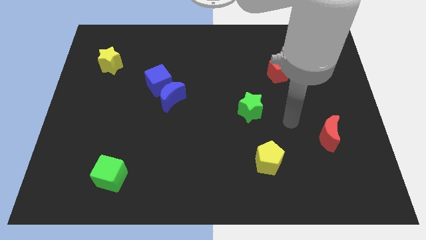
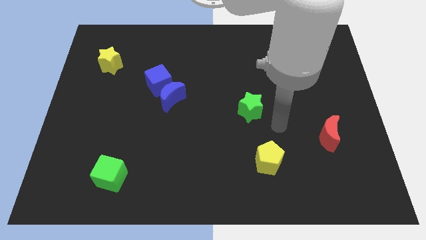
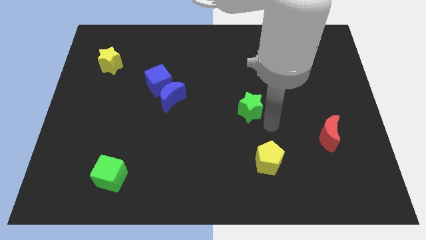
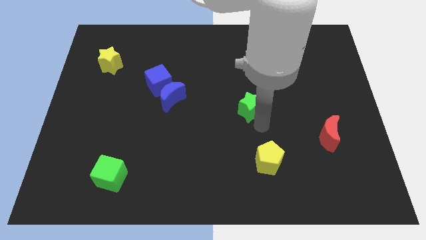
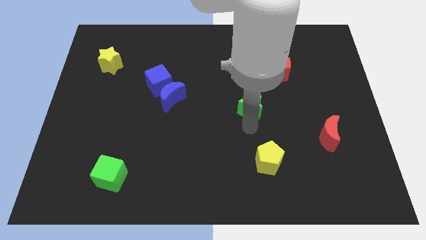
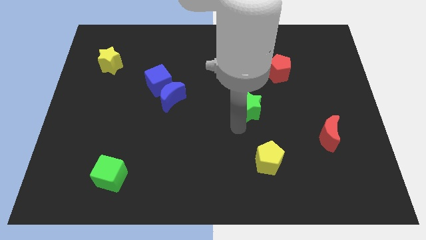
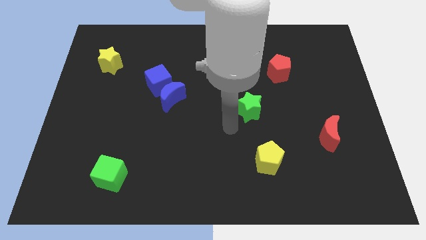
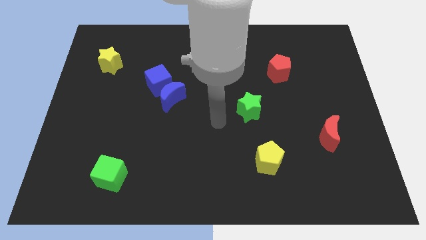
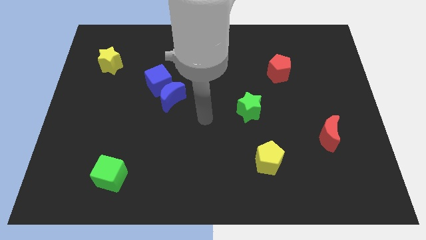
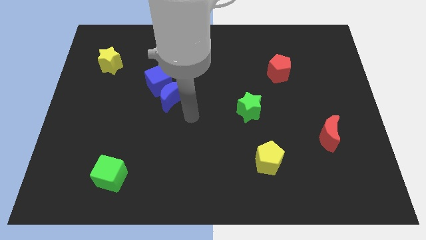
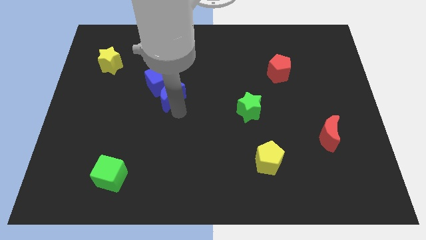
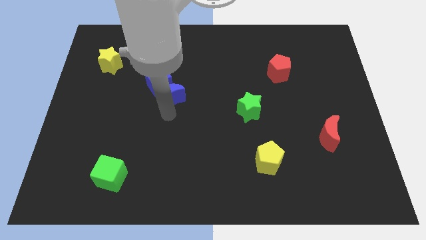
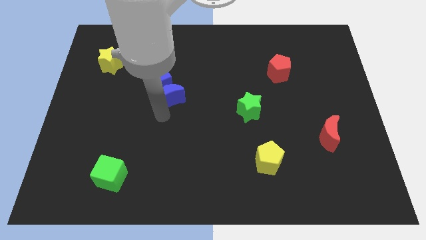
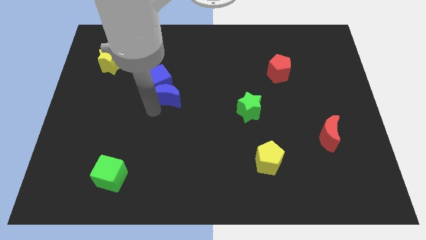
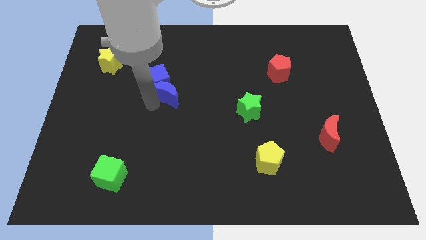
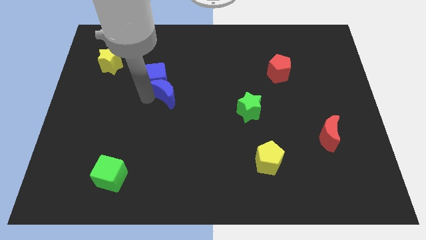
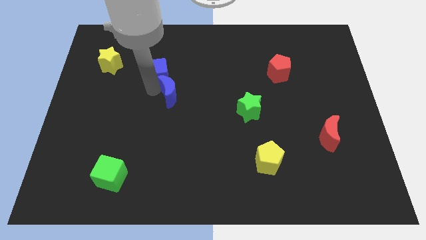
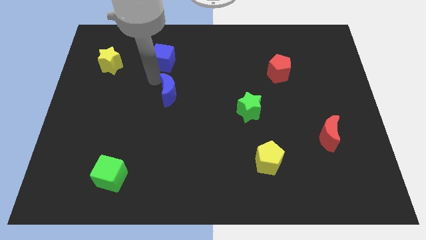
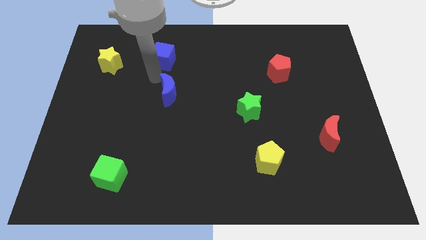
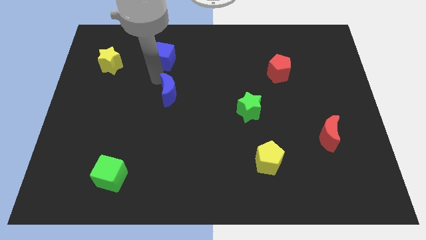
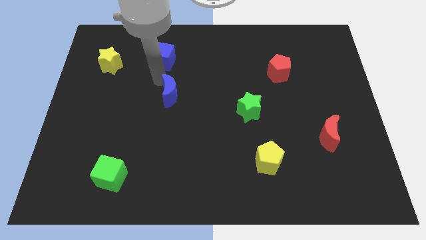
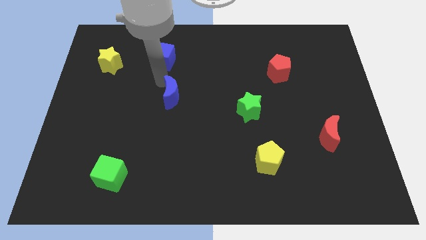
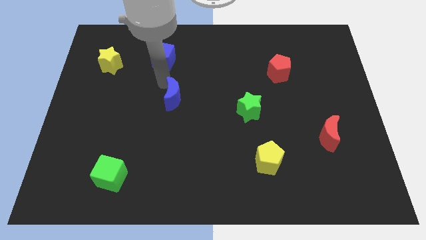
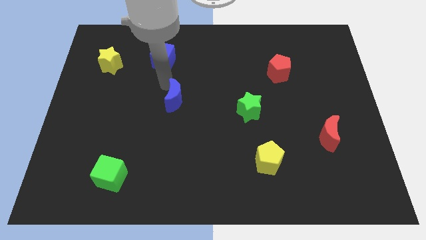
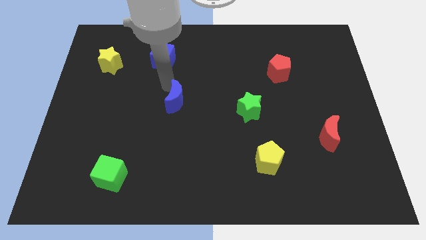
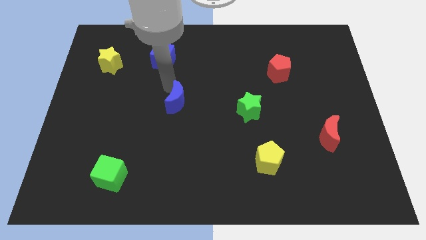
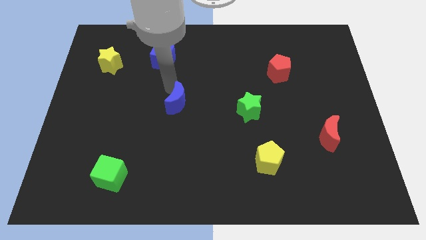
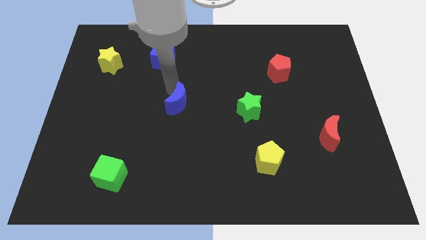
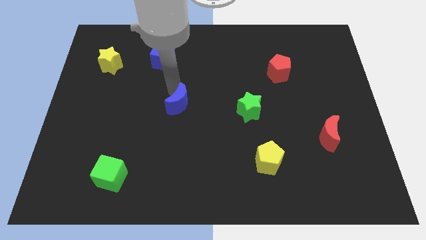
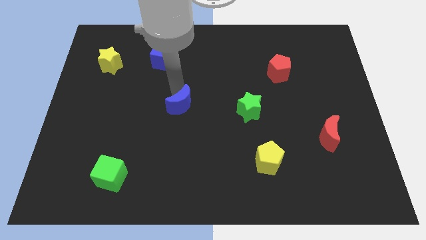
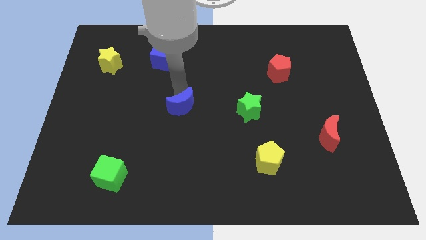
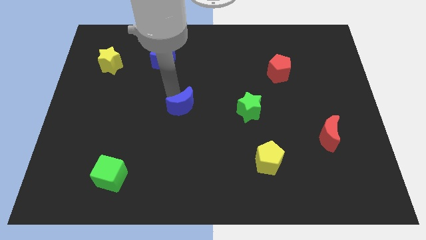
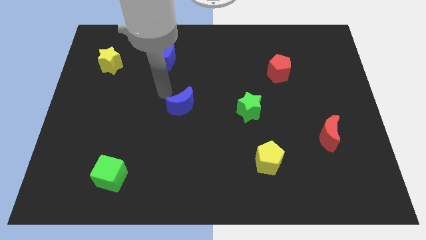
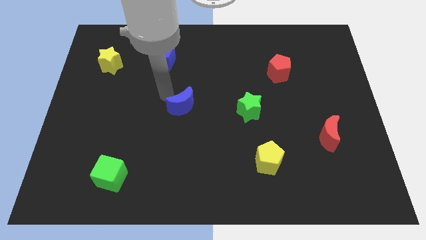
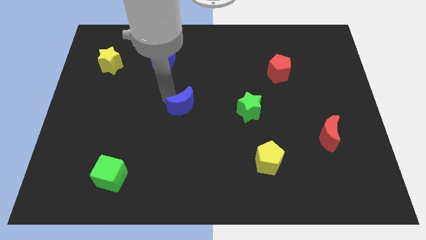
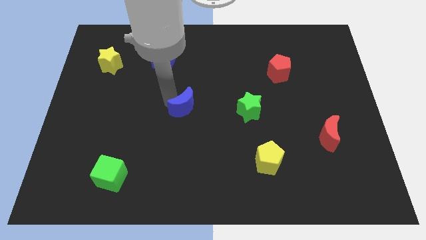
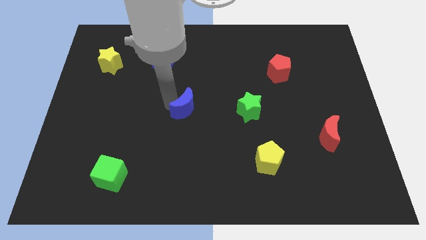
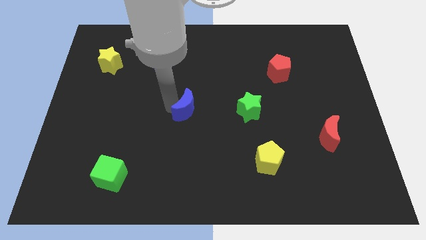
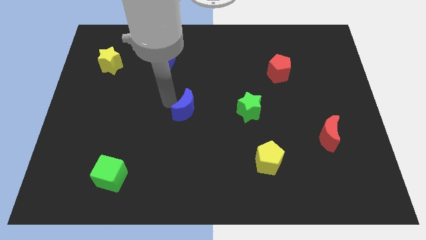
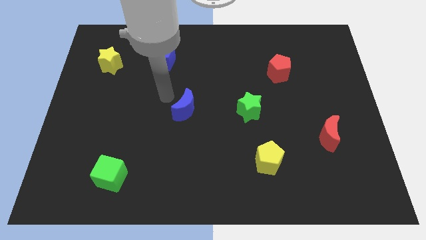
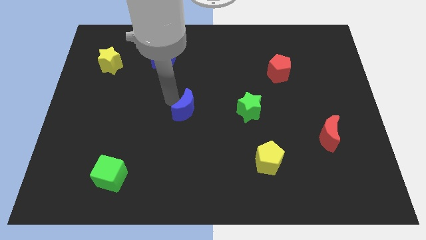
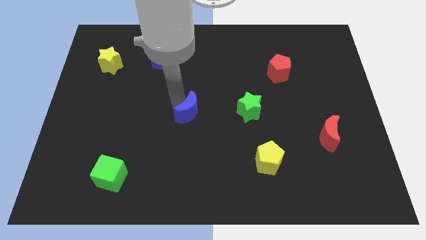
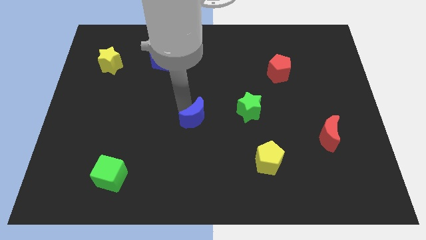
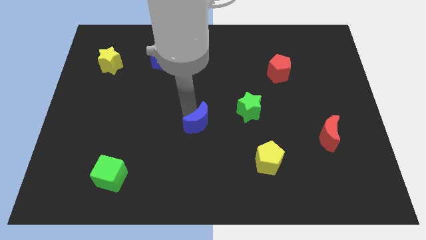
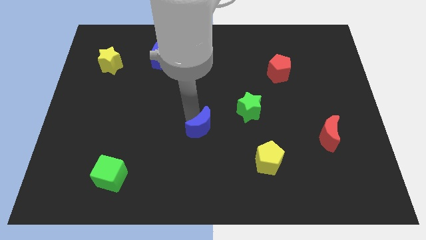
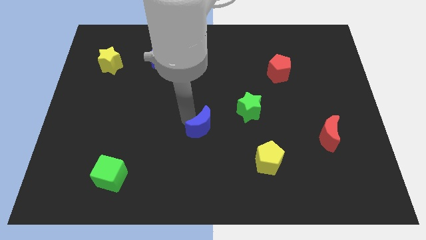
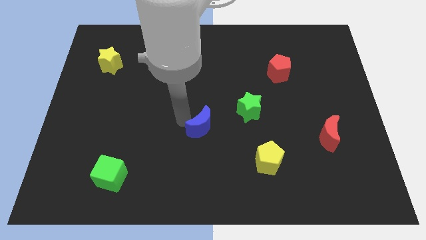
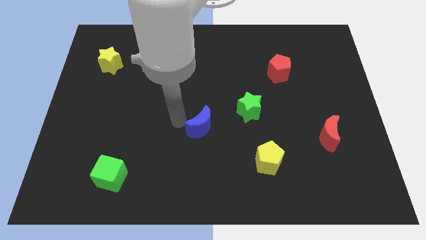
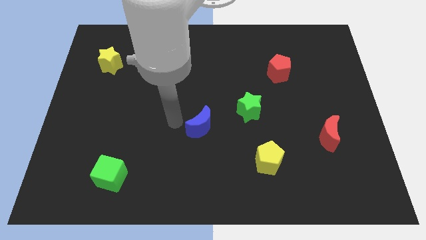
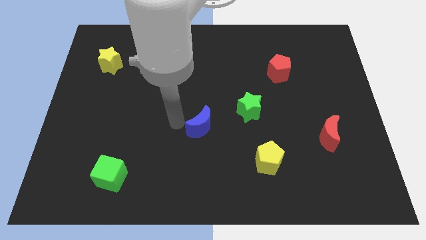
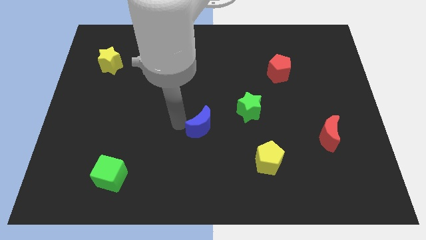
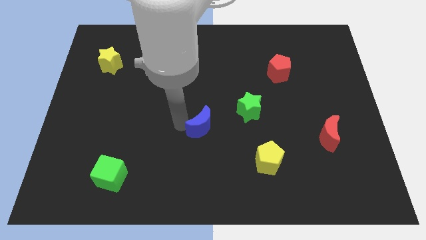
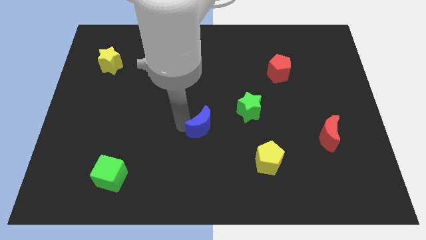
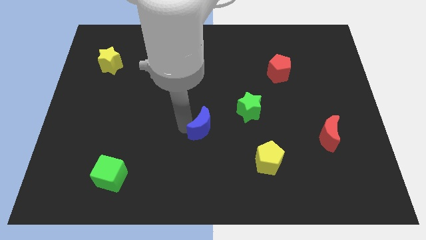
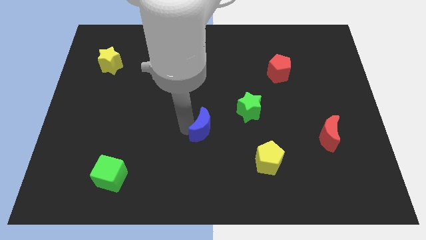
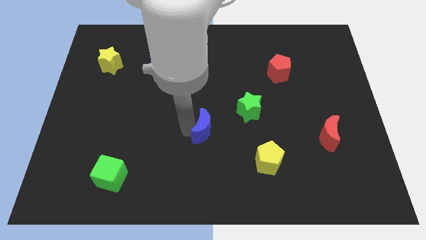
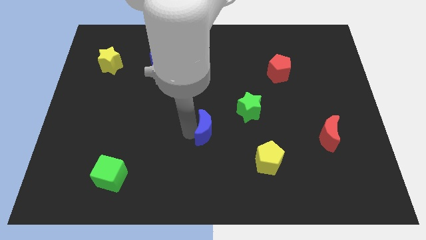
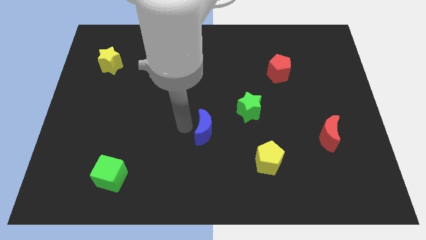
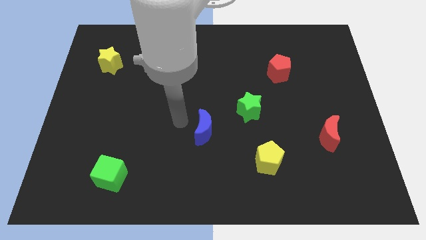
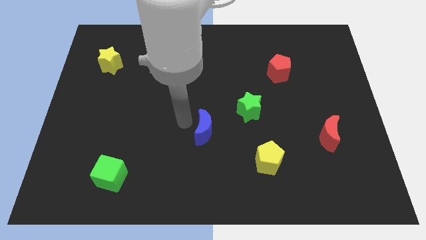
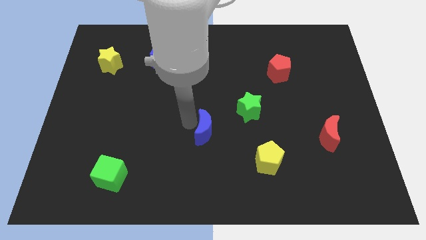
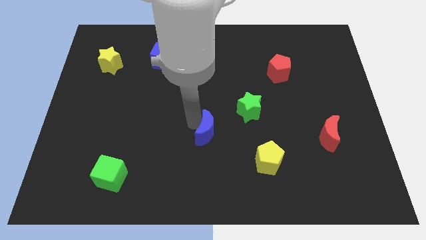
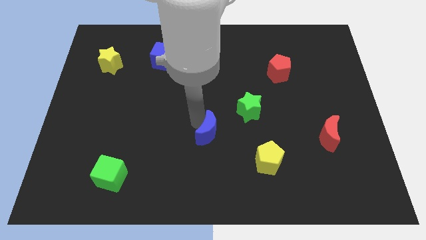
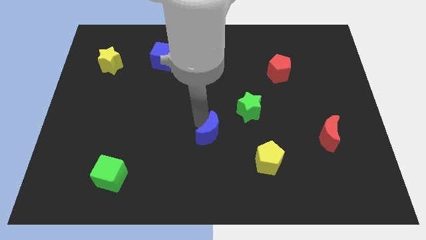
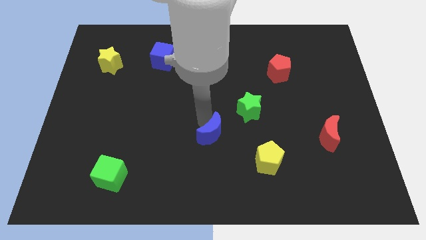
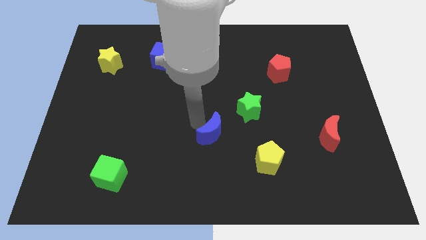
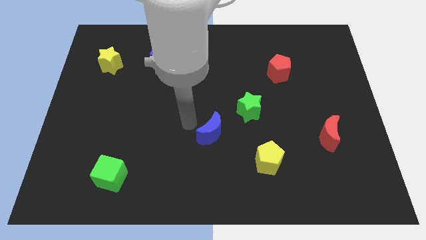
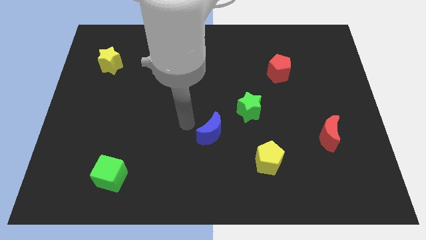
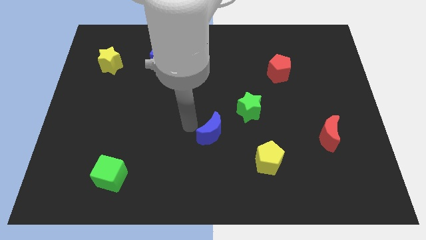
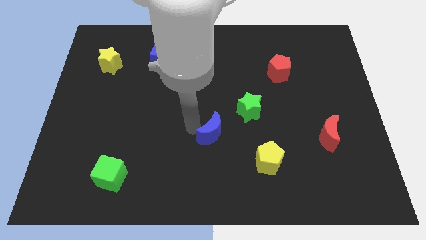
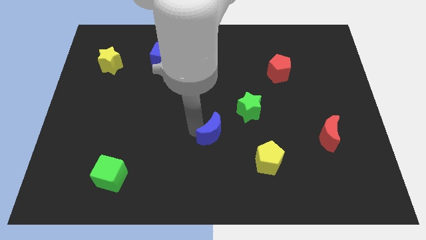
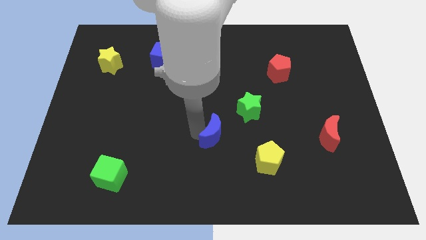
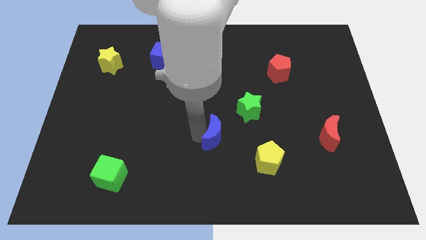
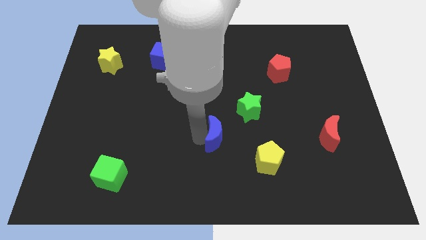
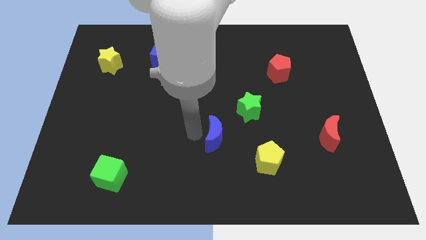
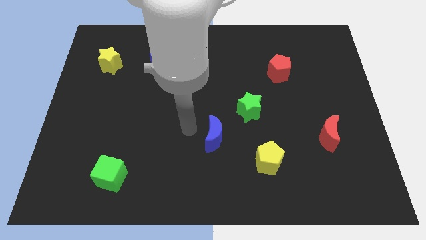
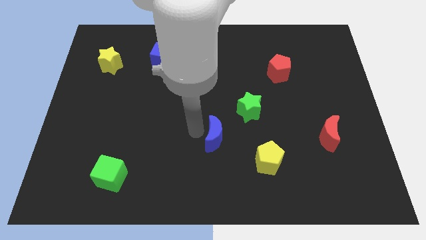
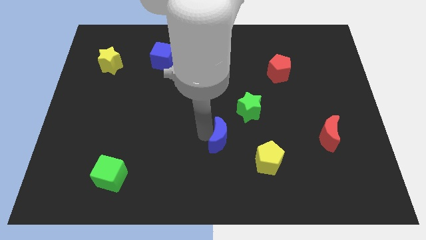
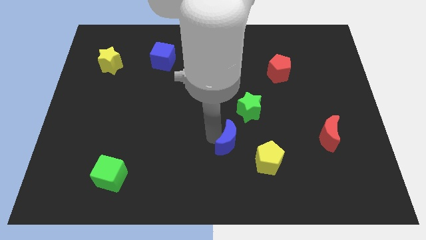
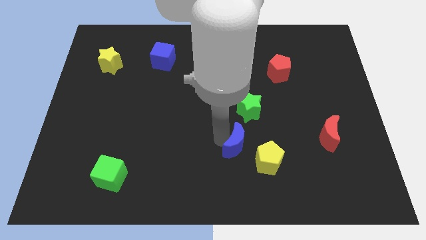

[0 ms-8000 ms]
move the blue moon to the bottom of the green star
